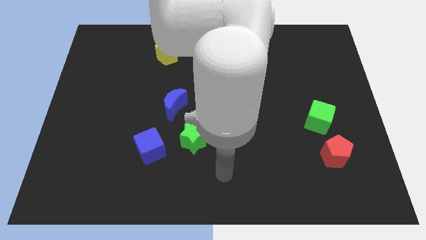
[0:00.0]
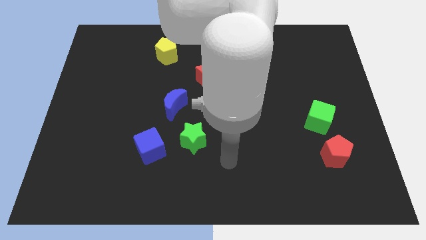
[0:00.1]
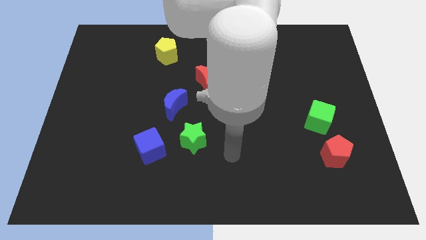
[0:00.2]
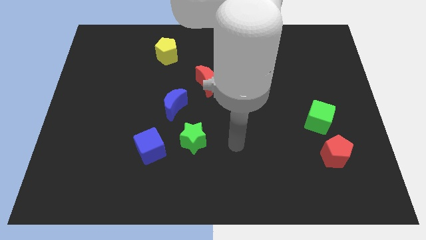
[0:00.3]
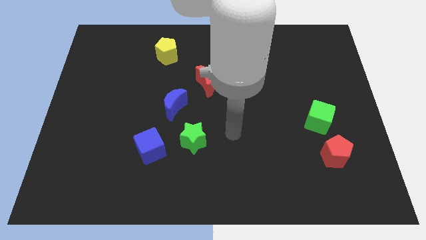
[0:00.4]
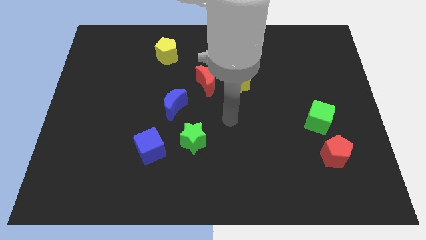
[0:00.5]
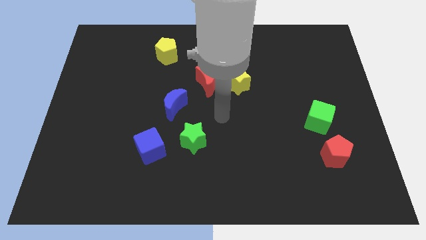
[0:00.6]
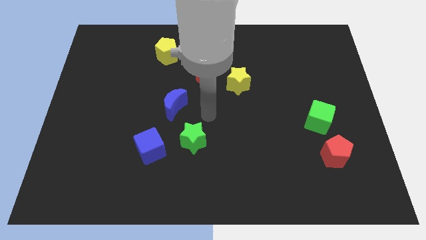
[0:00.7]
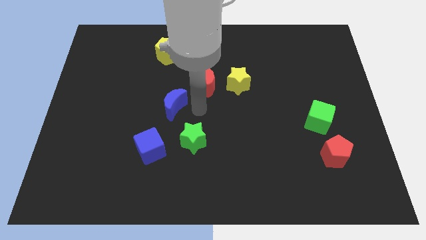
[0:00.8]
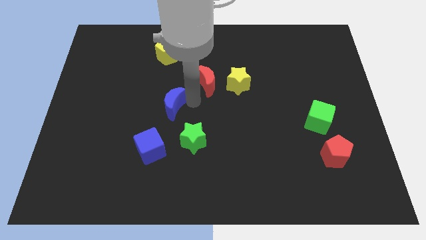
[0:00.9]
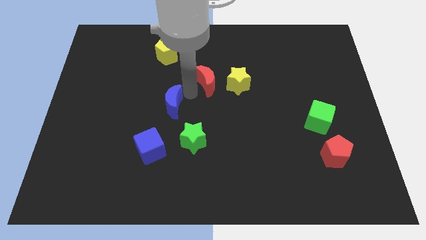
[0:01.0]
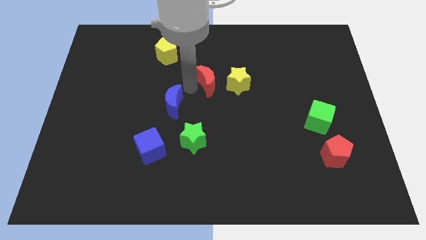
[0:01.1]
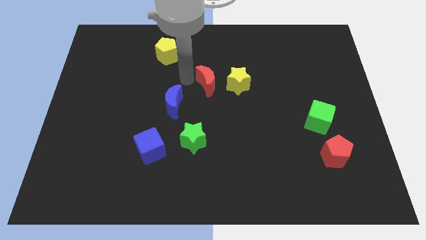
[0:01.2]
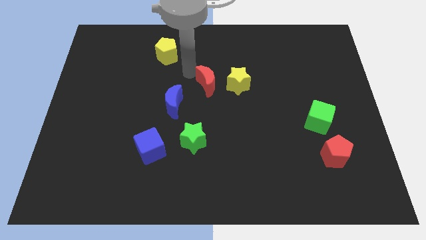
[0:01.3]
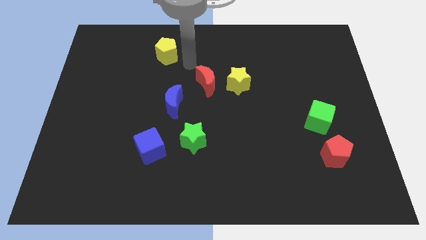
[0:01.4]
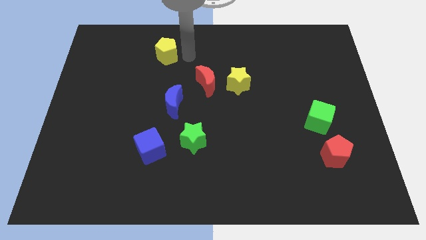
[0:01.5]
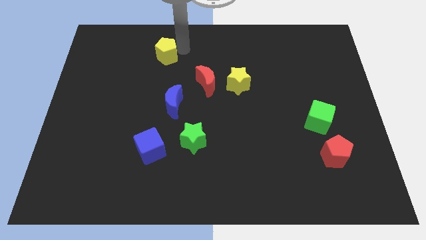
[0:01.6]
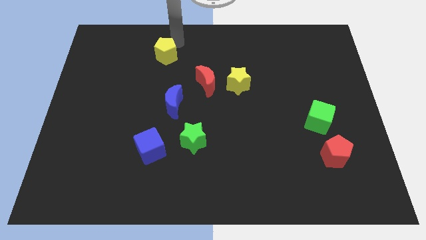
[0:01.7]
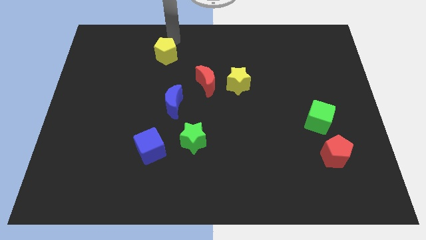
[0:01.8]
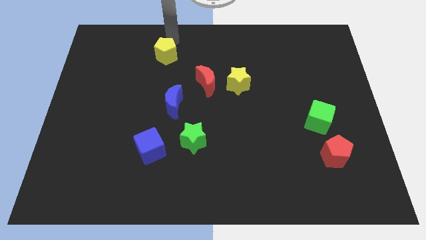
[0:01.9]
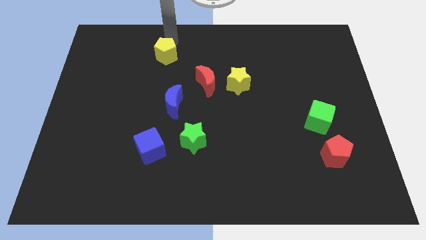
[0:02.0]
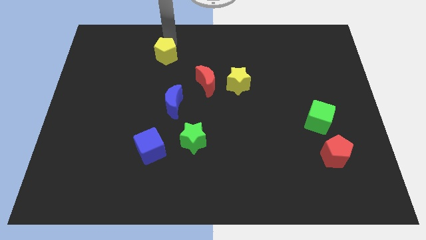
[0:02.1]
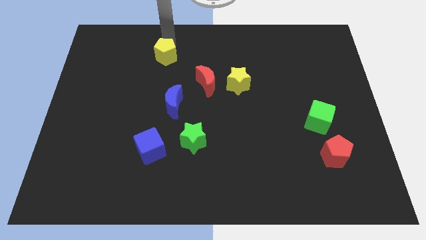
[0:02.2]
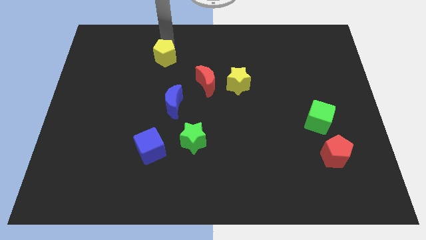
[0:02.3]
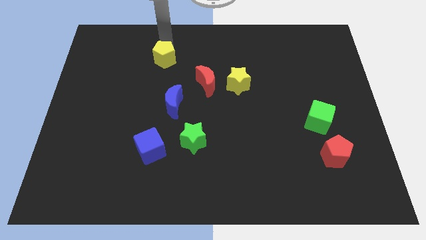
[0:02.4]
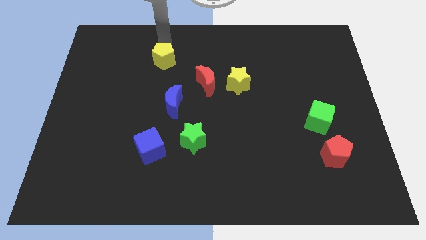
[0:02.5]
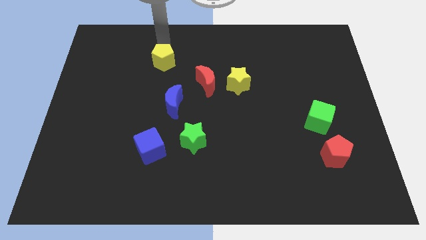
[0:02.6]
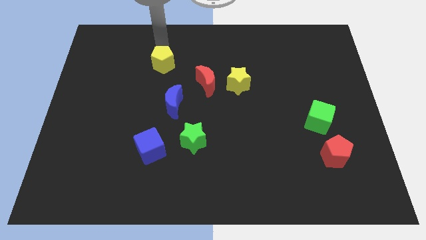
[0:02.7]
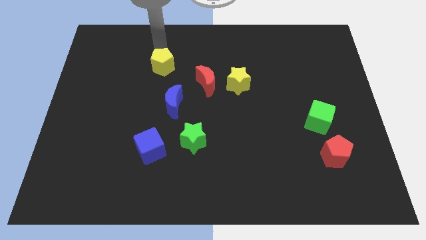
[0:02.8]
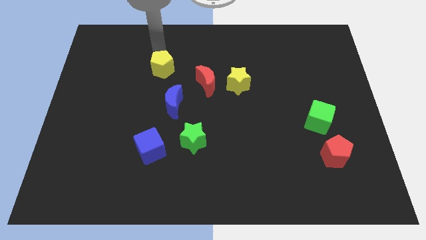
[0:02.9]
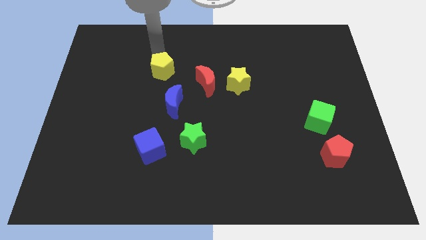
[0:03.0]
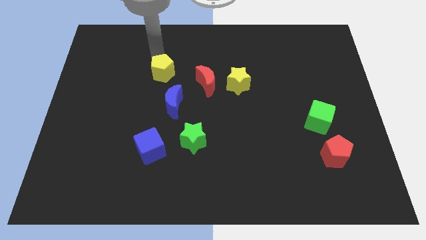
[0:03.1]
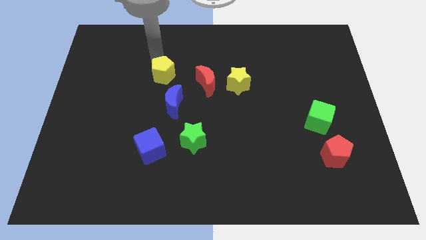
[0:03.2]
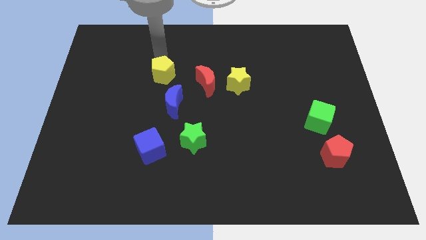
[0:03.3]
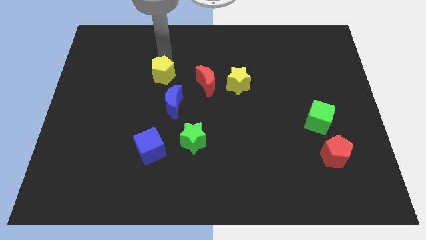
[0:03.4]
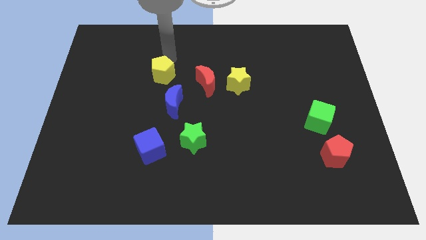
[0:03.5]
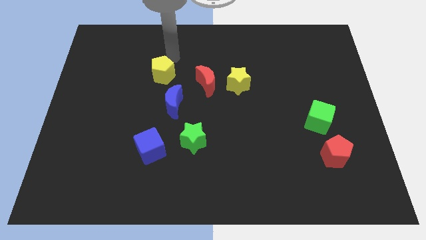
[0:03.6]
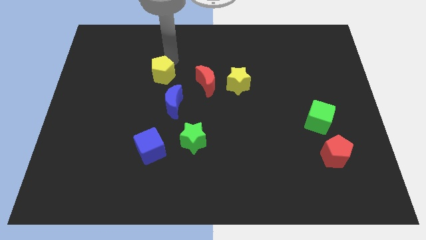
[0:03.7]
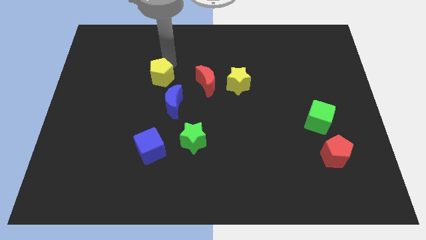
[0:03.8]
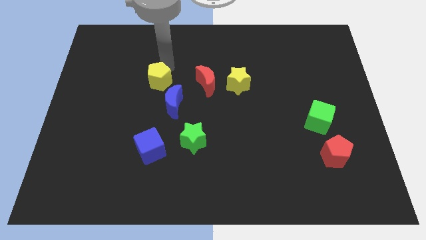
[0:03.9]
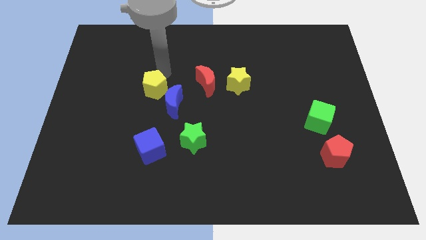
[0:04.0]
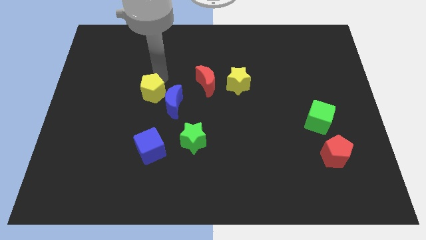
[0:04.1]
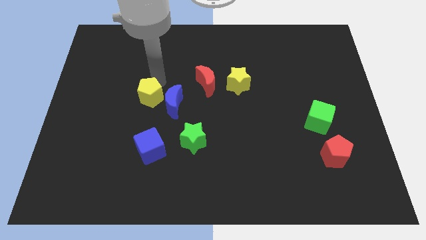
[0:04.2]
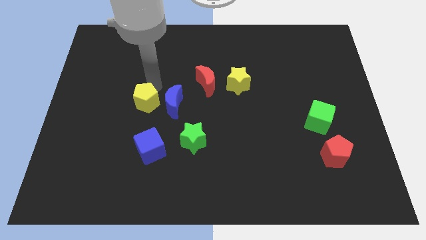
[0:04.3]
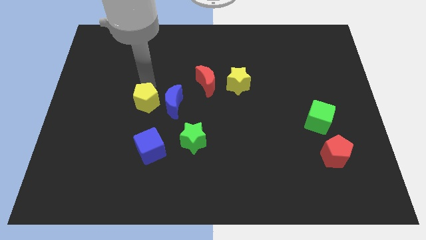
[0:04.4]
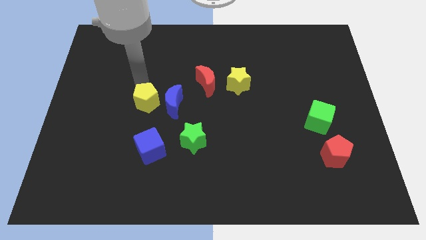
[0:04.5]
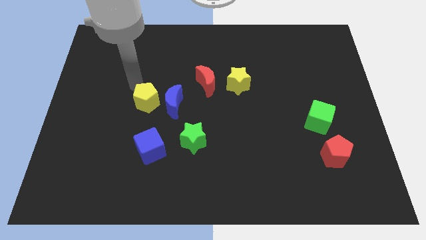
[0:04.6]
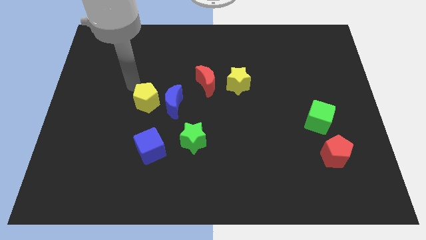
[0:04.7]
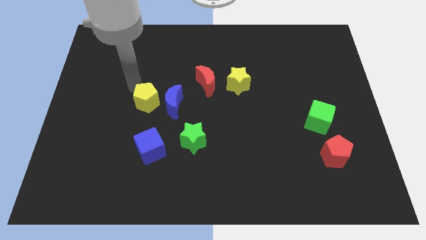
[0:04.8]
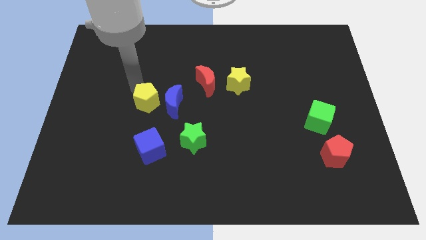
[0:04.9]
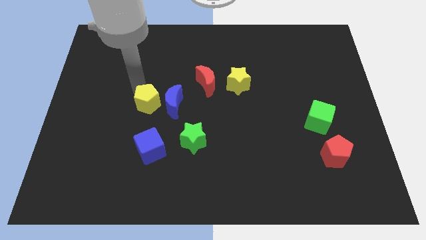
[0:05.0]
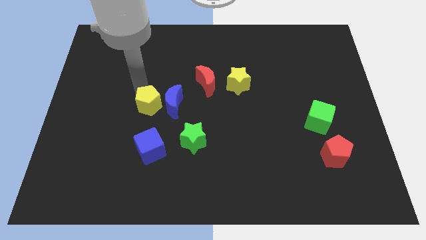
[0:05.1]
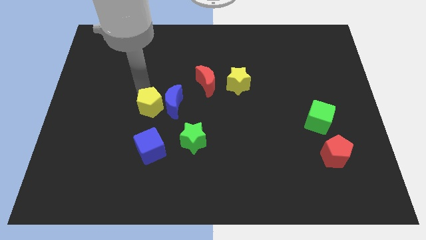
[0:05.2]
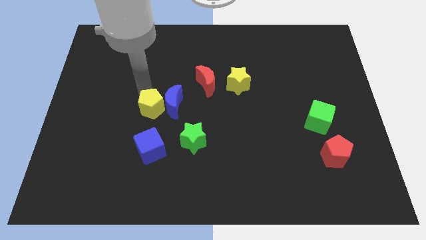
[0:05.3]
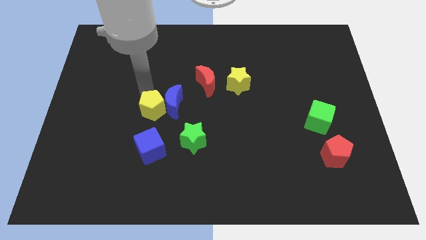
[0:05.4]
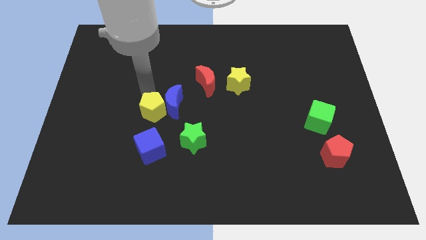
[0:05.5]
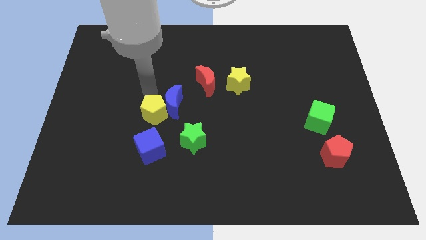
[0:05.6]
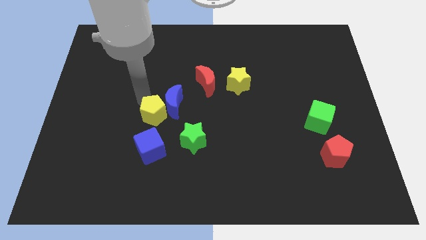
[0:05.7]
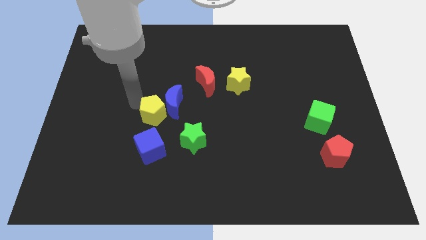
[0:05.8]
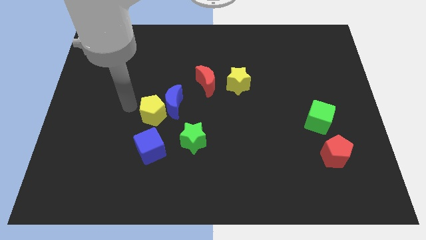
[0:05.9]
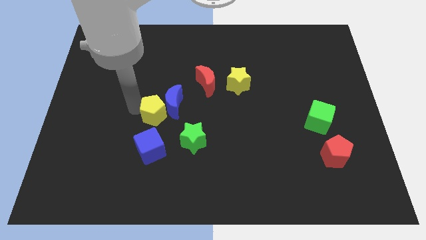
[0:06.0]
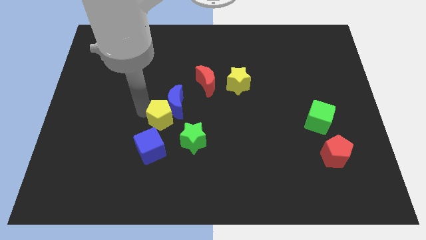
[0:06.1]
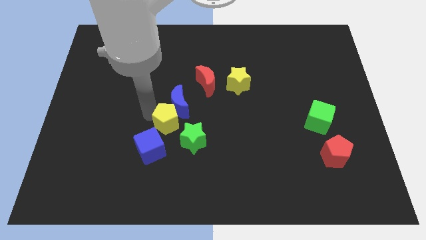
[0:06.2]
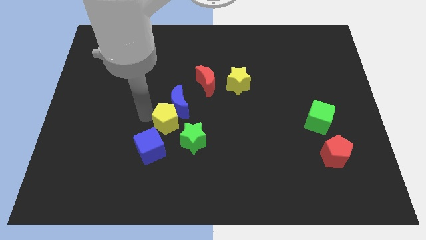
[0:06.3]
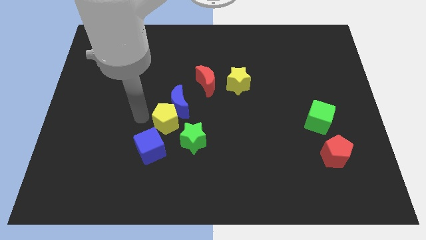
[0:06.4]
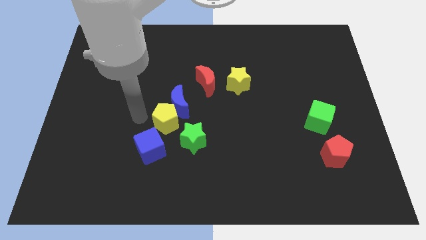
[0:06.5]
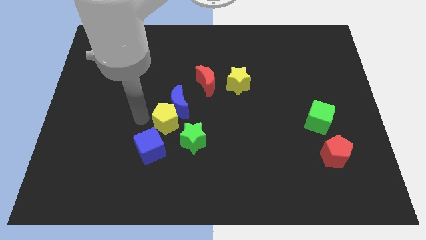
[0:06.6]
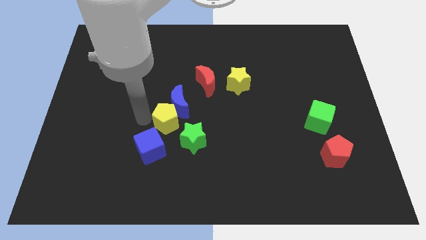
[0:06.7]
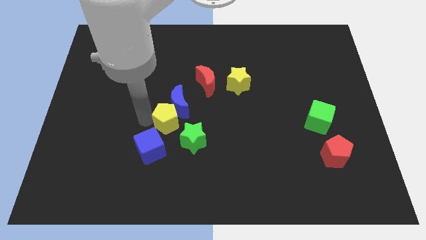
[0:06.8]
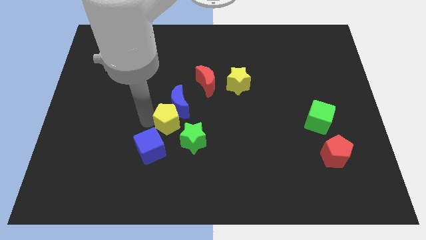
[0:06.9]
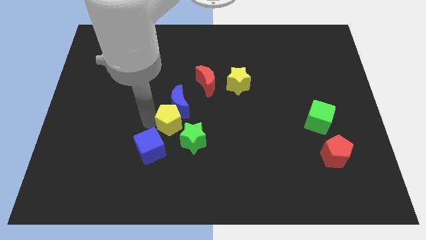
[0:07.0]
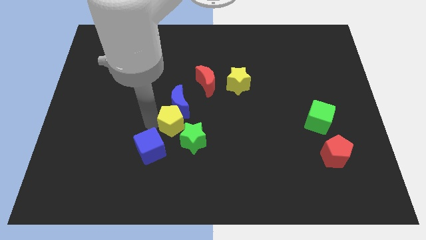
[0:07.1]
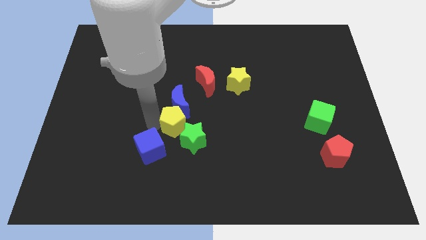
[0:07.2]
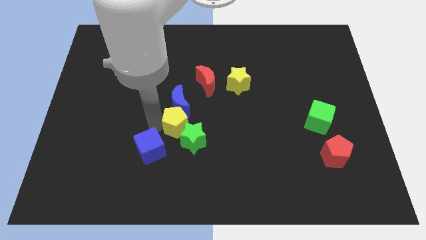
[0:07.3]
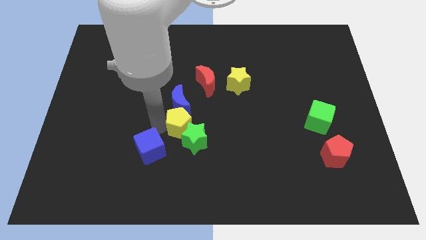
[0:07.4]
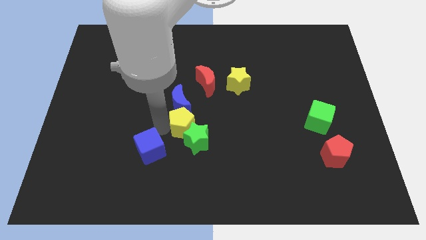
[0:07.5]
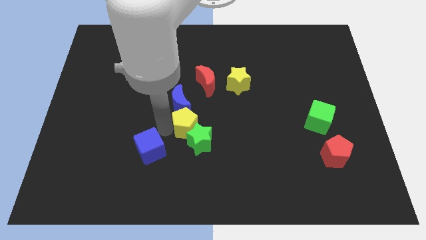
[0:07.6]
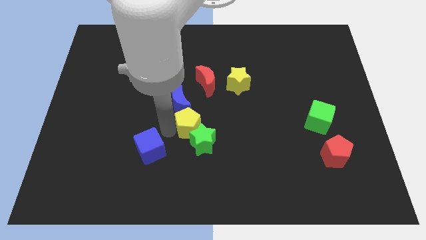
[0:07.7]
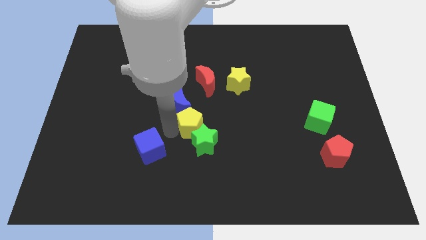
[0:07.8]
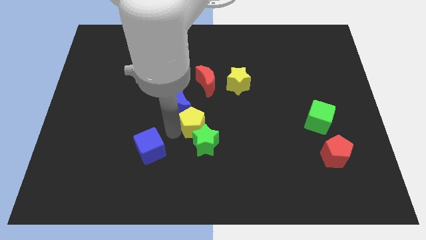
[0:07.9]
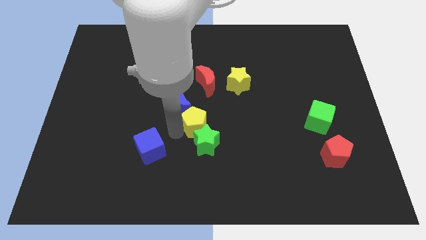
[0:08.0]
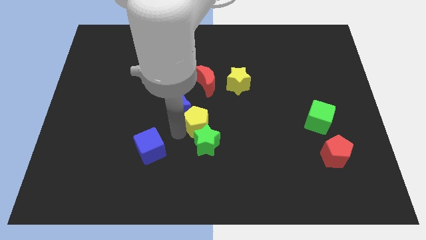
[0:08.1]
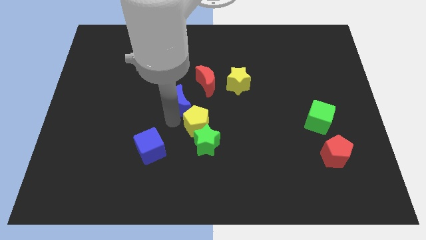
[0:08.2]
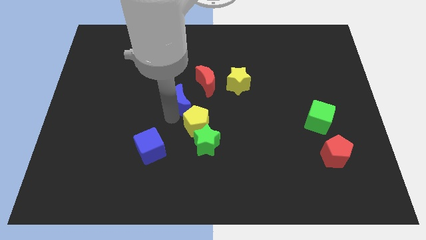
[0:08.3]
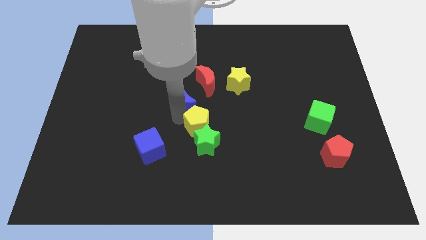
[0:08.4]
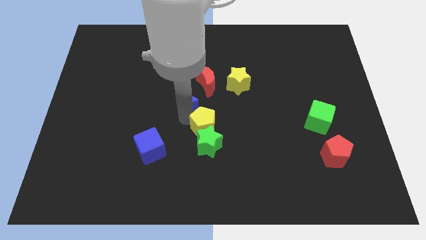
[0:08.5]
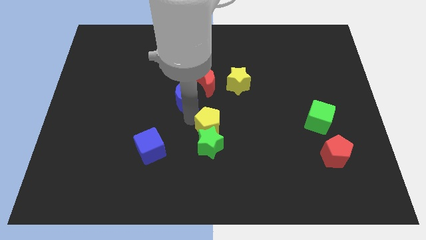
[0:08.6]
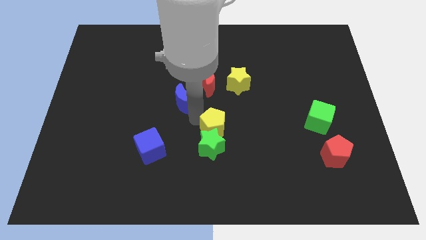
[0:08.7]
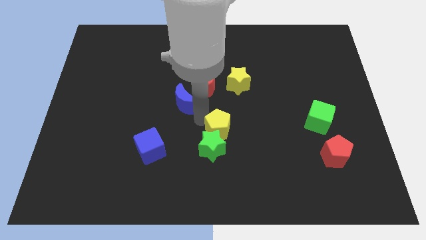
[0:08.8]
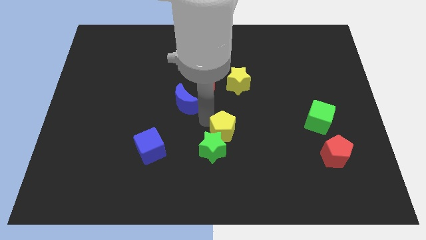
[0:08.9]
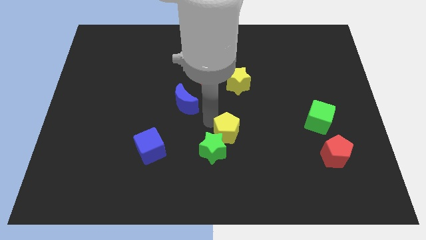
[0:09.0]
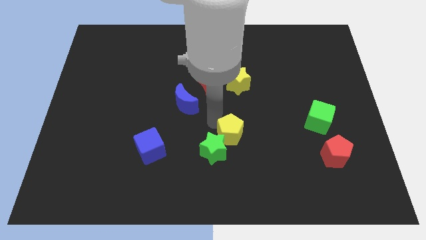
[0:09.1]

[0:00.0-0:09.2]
push the yellow pentagon to the right of the green star
